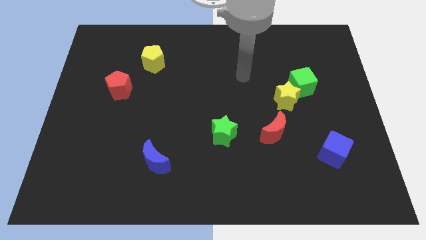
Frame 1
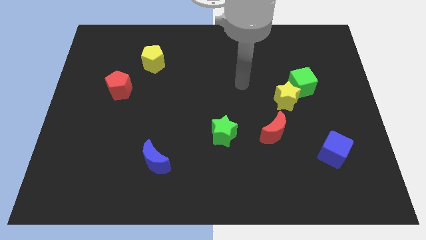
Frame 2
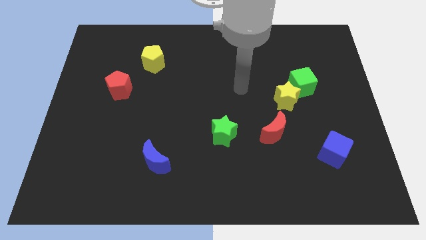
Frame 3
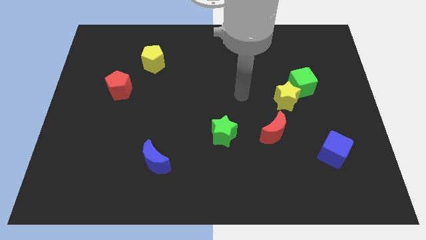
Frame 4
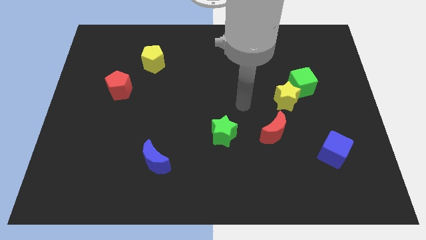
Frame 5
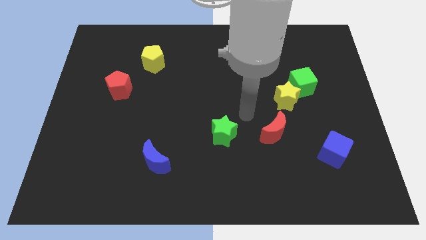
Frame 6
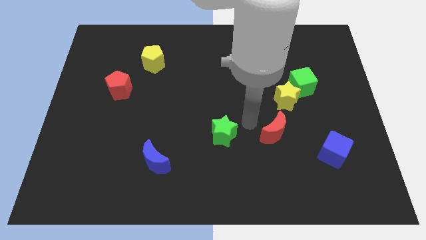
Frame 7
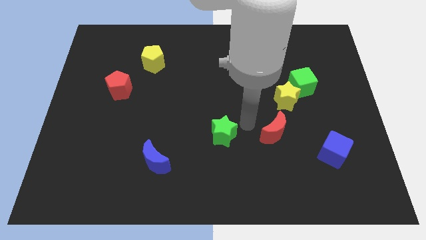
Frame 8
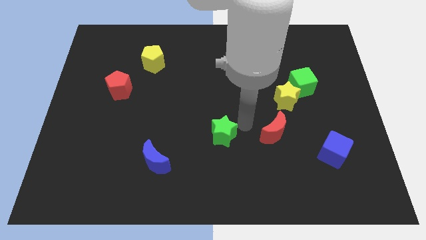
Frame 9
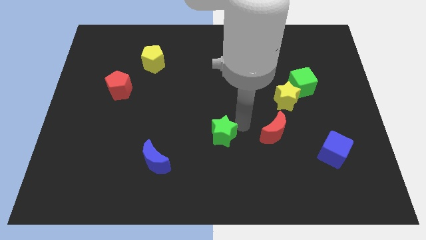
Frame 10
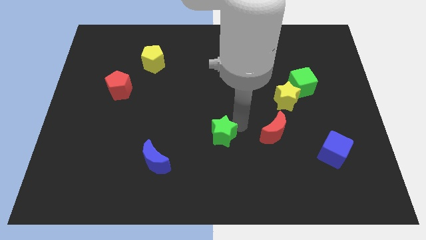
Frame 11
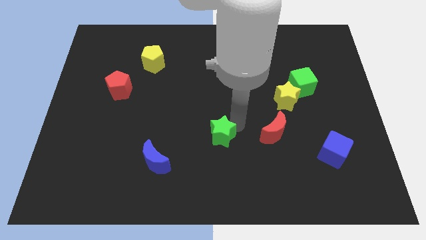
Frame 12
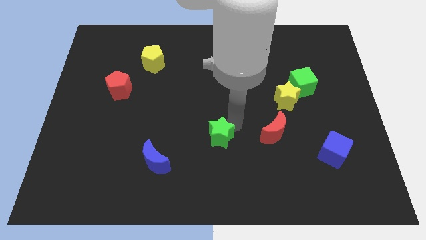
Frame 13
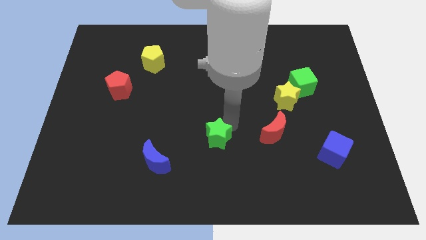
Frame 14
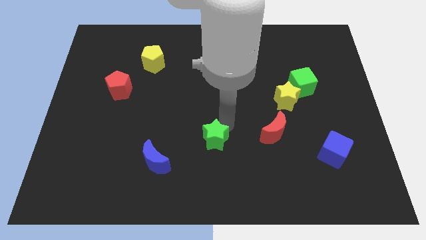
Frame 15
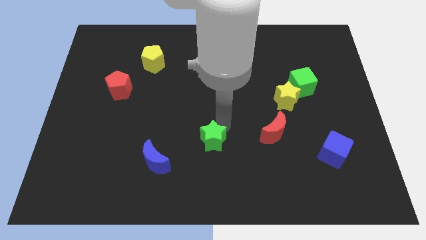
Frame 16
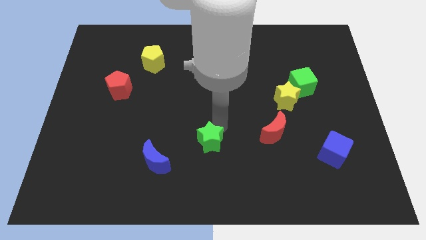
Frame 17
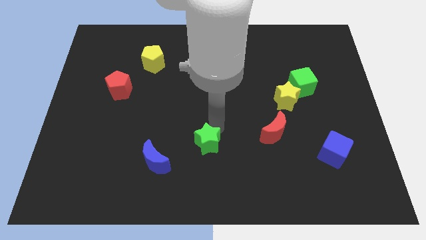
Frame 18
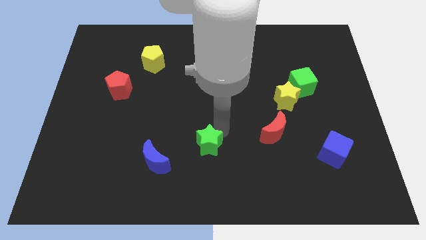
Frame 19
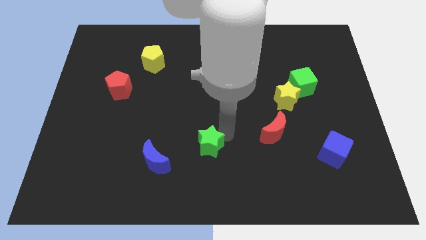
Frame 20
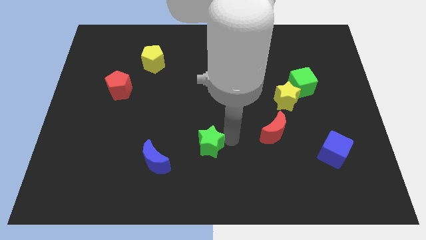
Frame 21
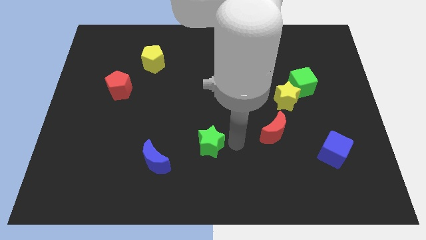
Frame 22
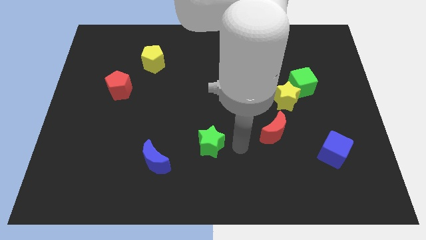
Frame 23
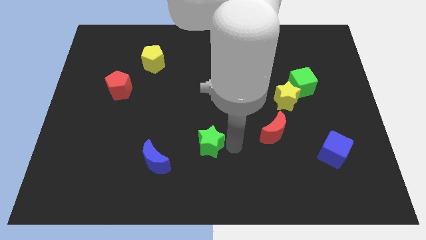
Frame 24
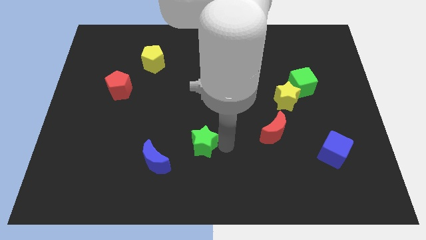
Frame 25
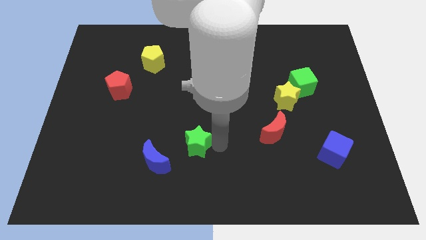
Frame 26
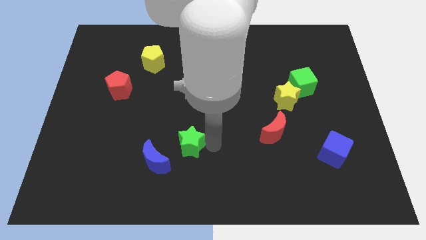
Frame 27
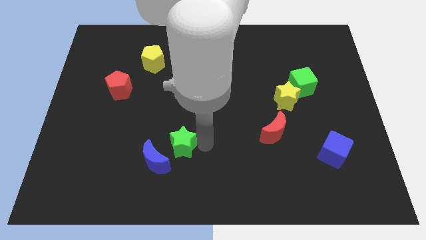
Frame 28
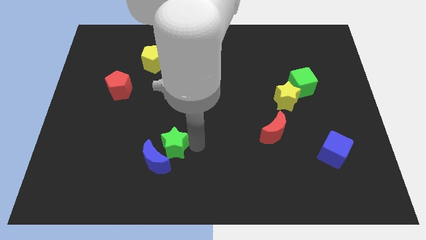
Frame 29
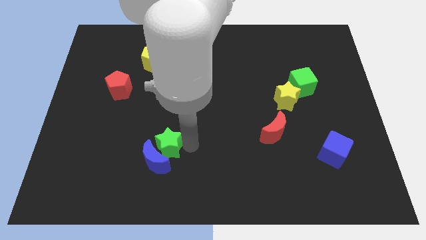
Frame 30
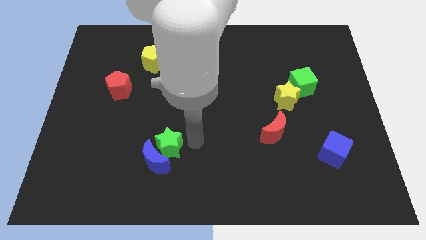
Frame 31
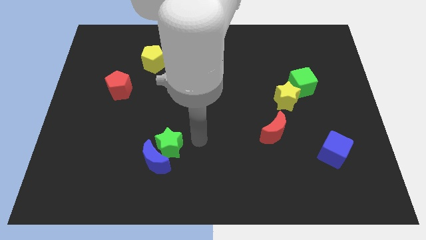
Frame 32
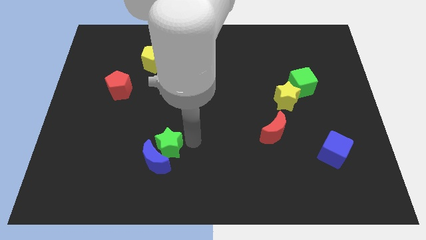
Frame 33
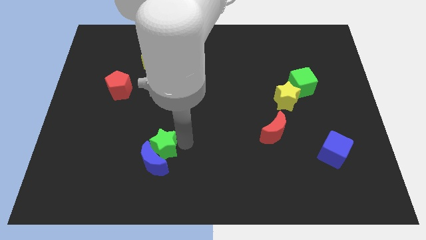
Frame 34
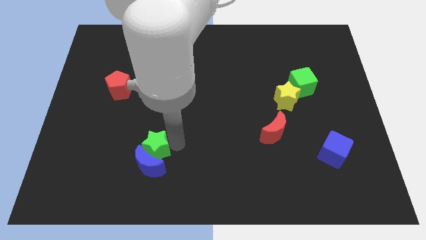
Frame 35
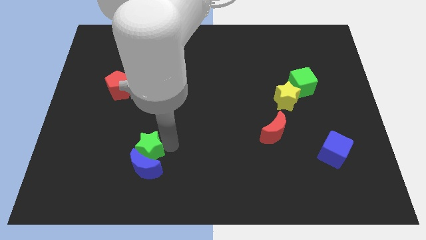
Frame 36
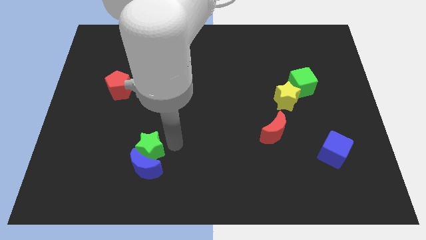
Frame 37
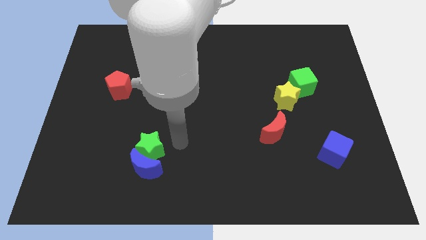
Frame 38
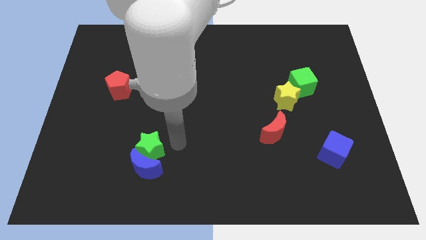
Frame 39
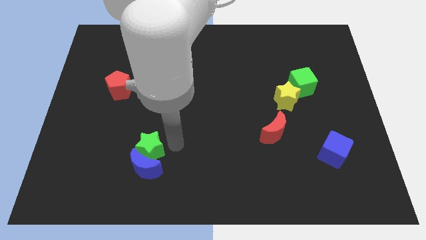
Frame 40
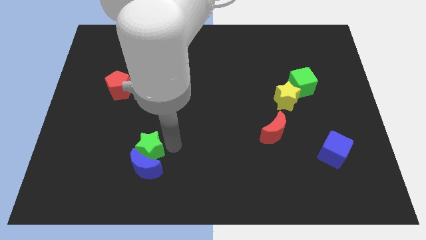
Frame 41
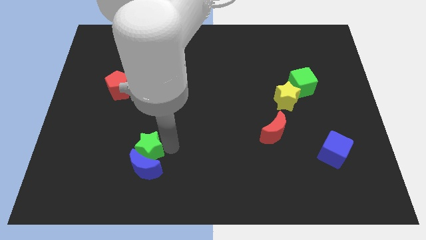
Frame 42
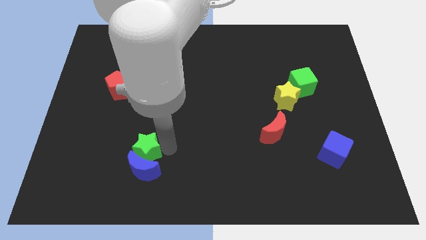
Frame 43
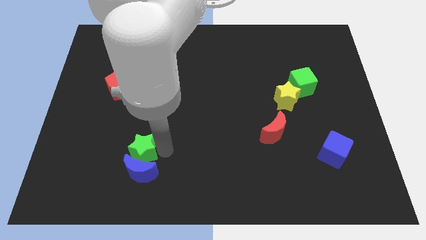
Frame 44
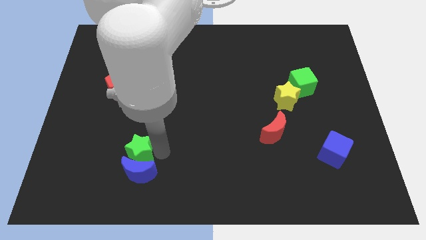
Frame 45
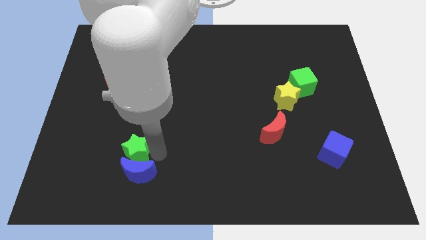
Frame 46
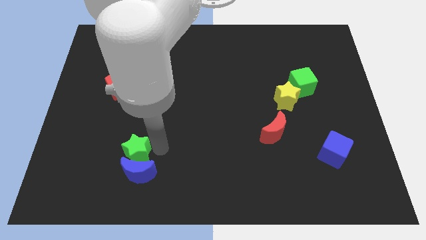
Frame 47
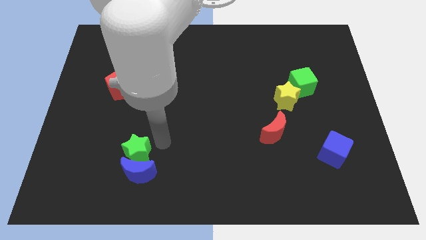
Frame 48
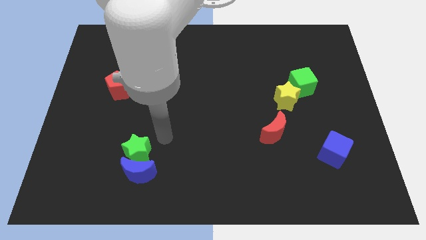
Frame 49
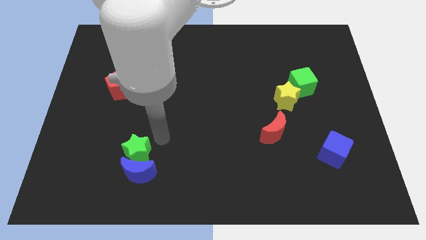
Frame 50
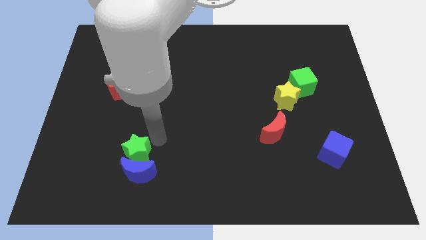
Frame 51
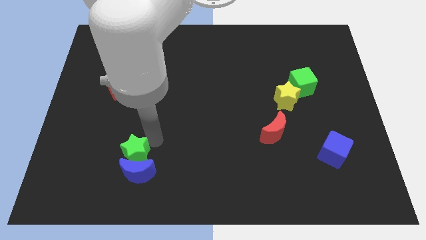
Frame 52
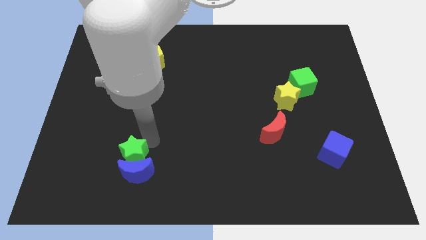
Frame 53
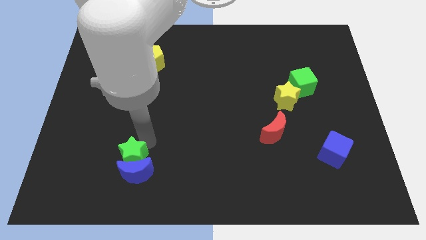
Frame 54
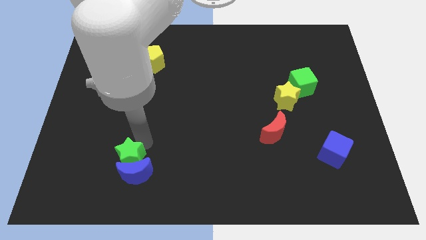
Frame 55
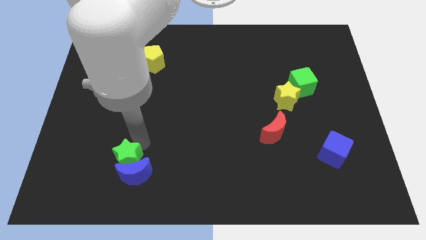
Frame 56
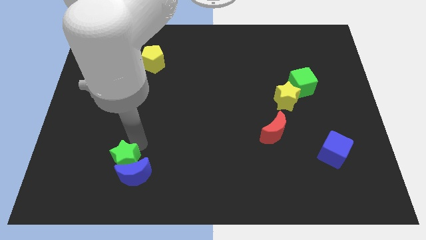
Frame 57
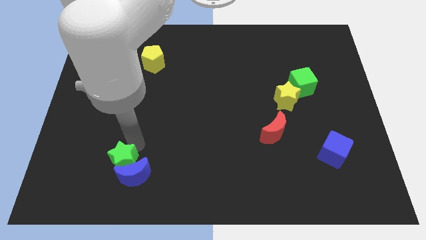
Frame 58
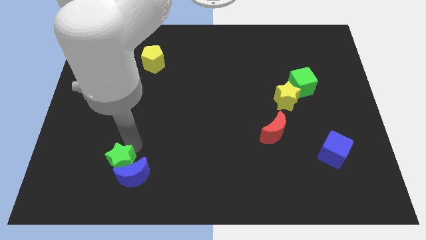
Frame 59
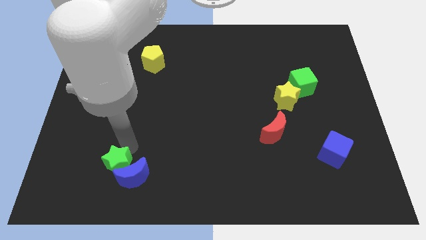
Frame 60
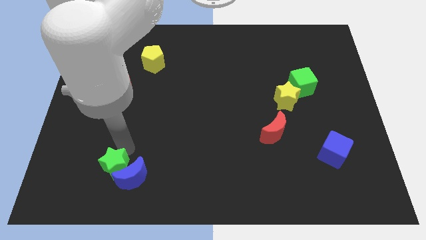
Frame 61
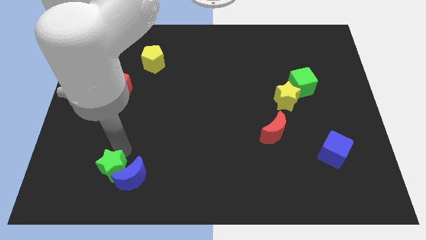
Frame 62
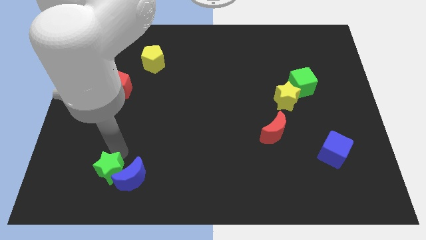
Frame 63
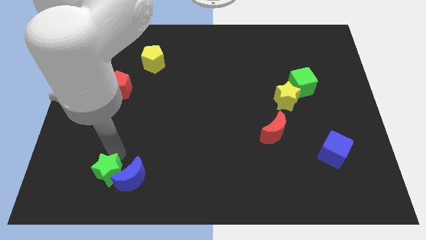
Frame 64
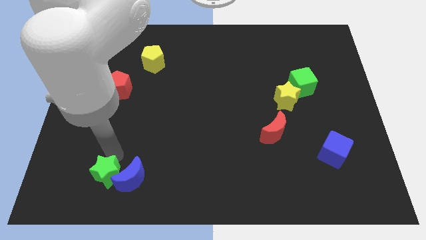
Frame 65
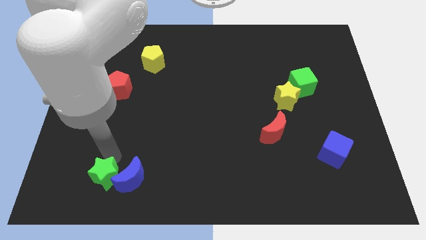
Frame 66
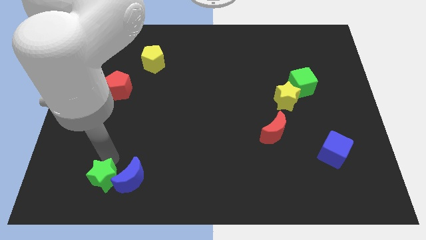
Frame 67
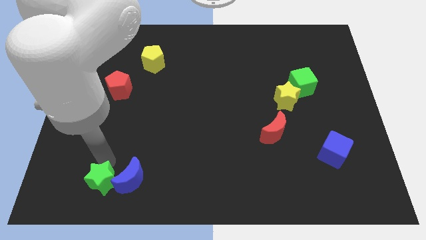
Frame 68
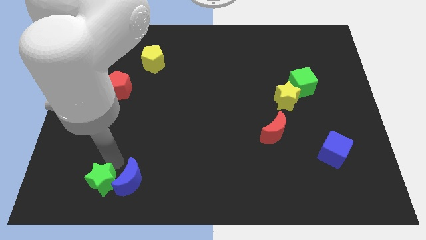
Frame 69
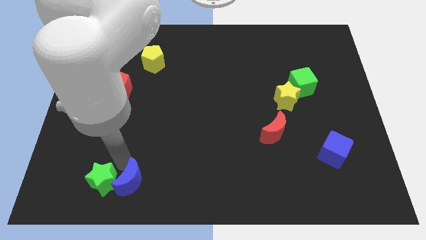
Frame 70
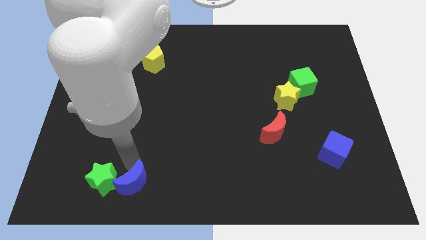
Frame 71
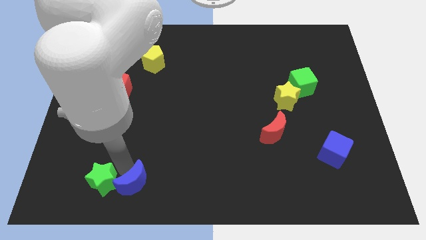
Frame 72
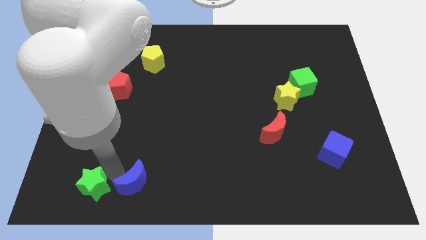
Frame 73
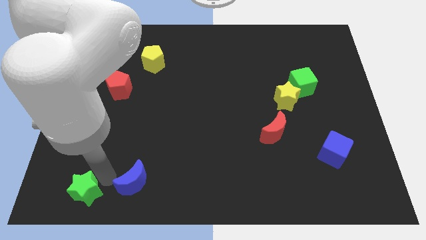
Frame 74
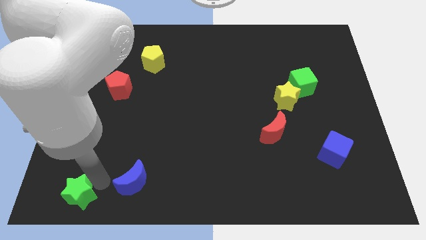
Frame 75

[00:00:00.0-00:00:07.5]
move the green star to the lower left corner
